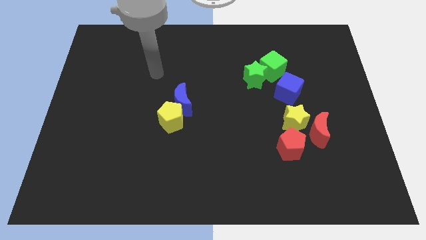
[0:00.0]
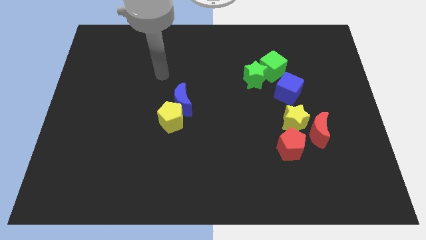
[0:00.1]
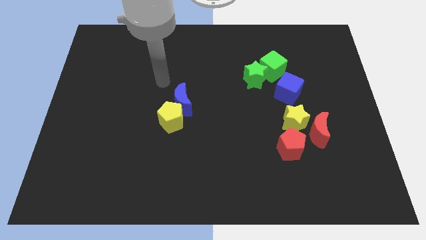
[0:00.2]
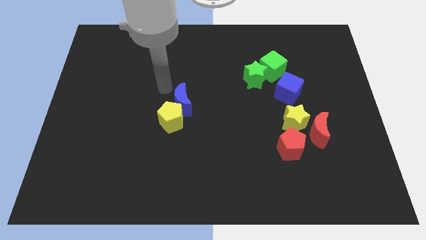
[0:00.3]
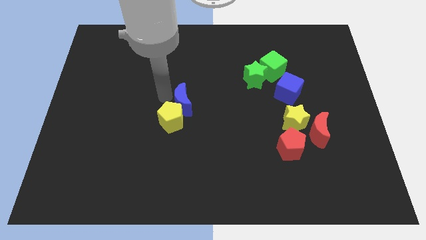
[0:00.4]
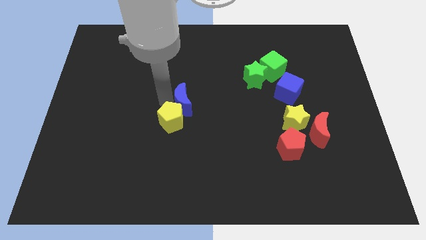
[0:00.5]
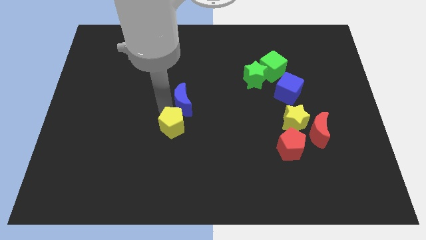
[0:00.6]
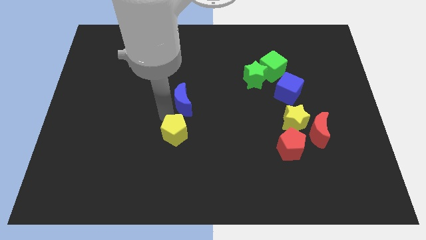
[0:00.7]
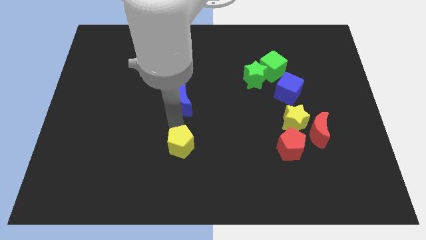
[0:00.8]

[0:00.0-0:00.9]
pull the blue moon apart from the yellow pentagon

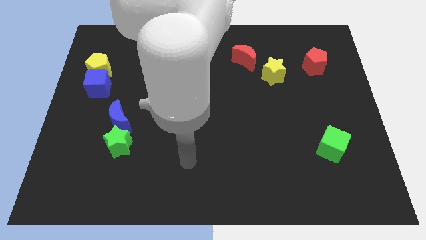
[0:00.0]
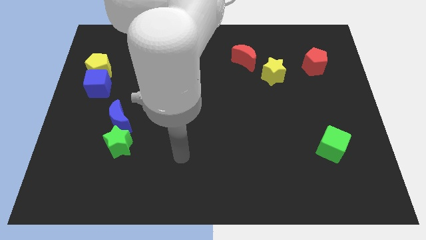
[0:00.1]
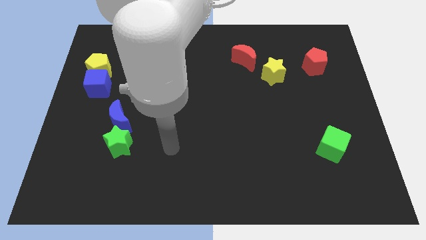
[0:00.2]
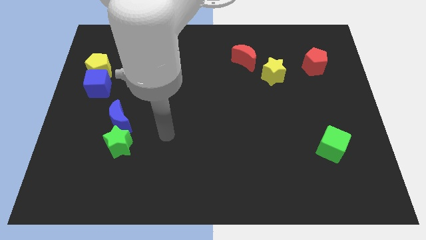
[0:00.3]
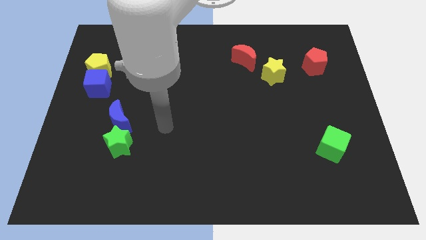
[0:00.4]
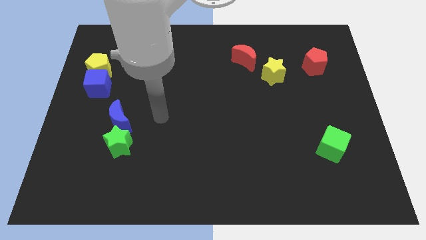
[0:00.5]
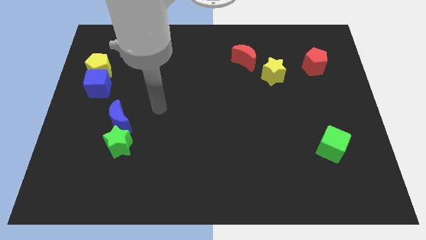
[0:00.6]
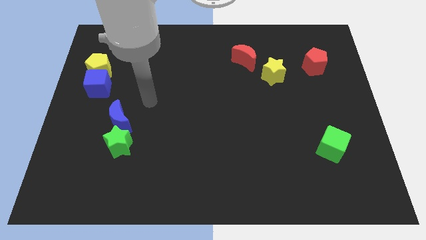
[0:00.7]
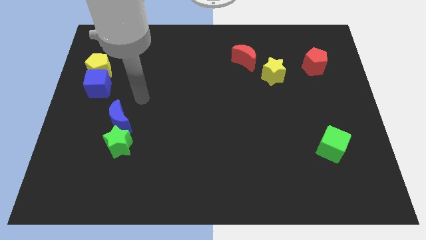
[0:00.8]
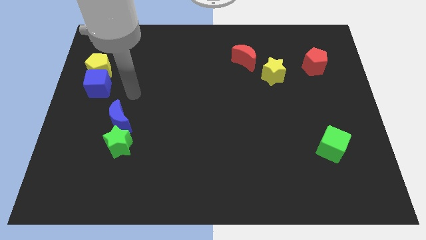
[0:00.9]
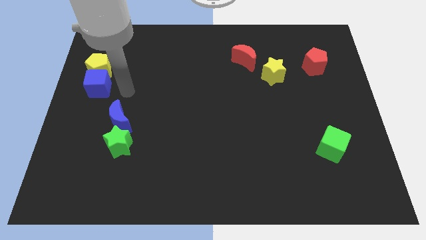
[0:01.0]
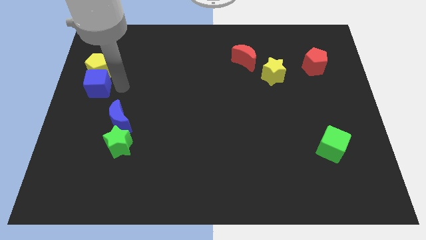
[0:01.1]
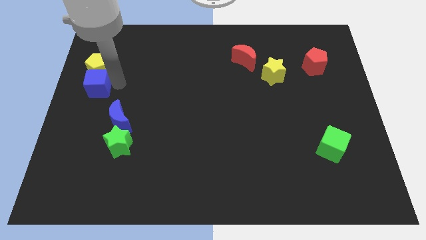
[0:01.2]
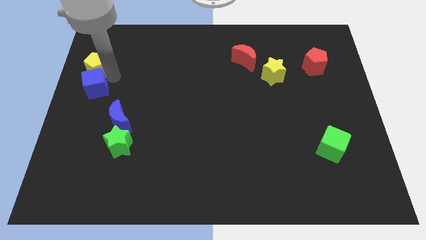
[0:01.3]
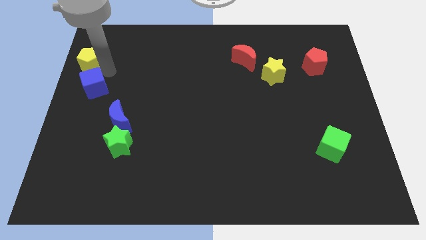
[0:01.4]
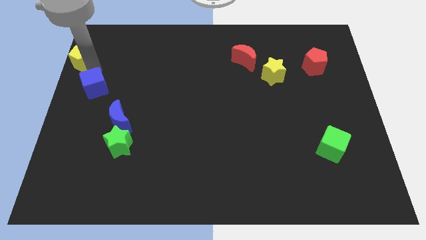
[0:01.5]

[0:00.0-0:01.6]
separate the blue cube from the yellow pentagon

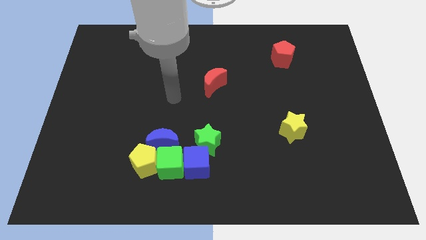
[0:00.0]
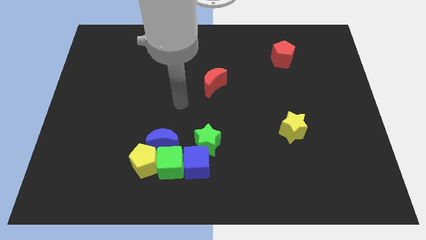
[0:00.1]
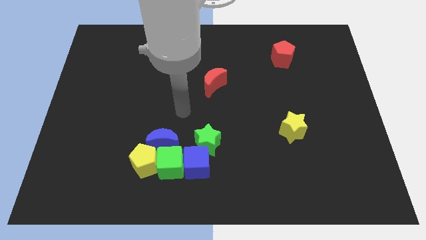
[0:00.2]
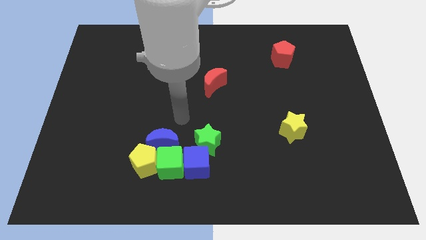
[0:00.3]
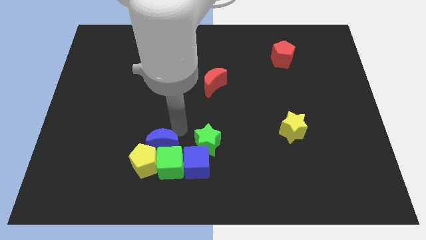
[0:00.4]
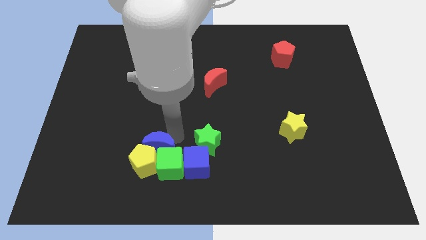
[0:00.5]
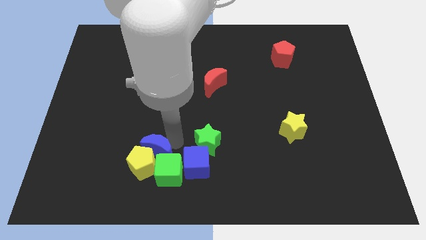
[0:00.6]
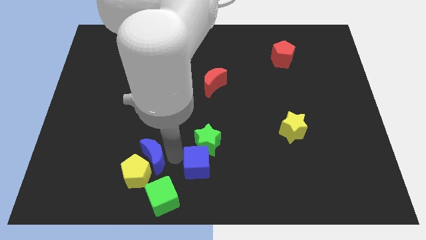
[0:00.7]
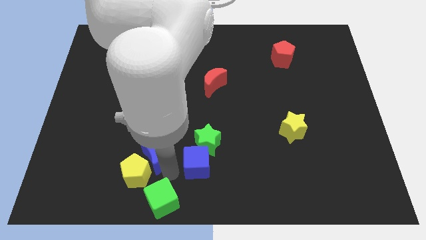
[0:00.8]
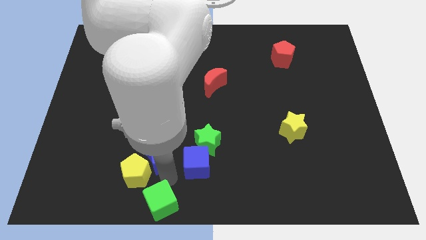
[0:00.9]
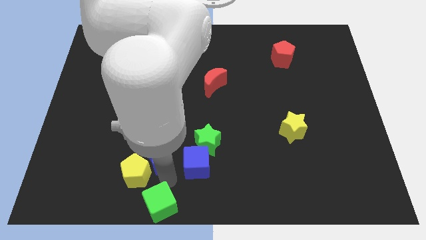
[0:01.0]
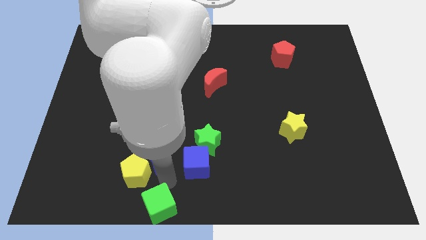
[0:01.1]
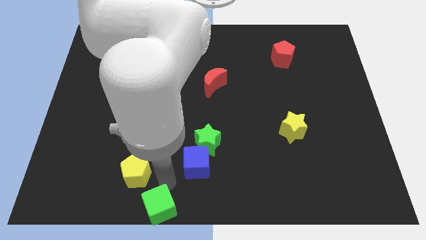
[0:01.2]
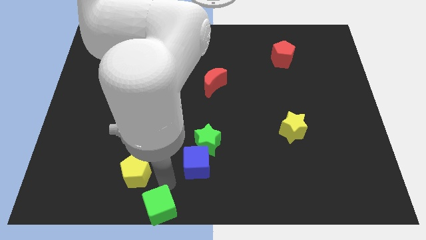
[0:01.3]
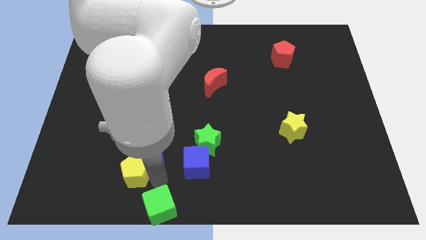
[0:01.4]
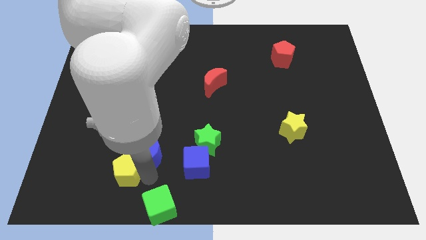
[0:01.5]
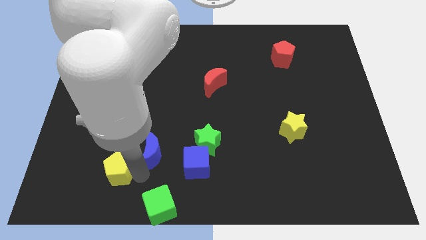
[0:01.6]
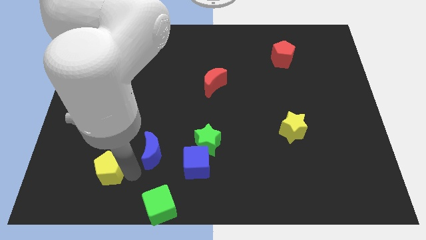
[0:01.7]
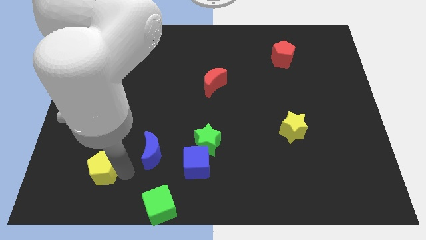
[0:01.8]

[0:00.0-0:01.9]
move the yellow pentagon away from the green cube and blue moon

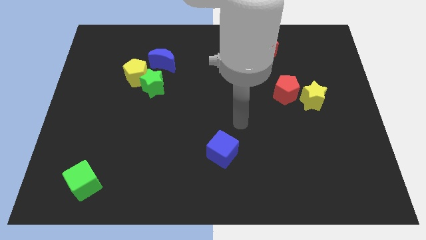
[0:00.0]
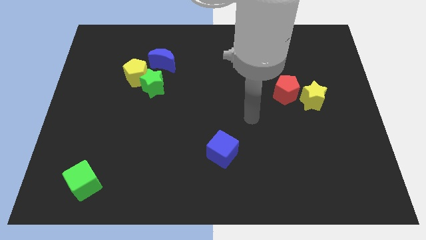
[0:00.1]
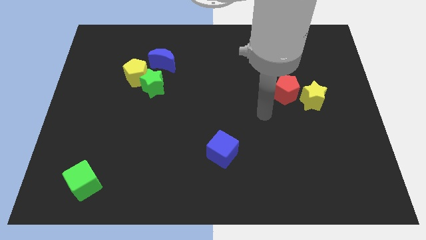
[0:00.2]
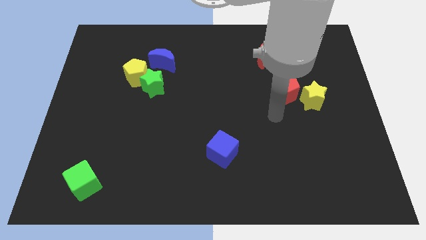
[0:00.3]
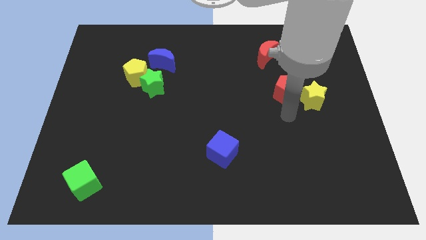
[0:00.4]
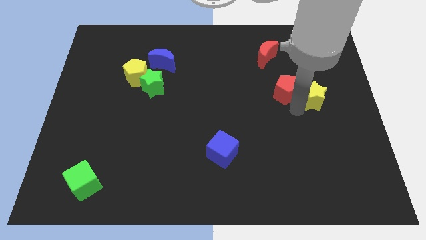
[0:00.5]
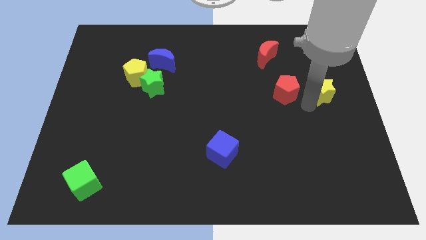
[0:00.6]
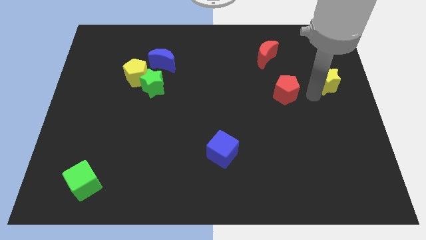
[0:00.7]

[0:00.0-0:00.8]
pull the red pentagon apart from the yellow star

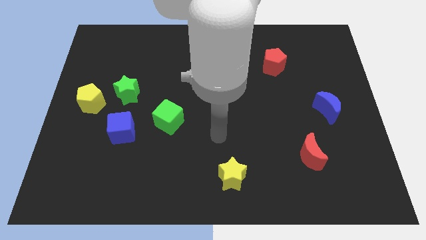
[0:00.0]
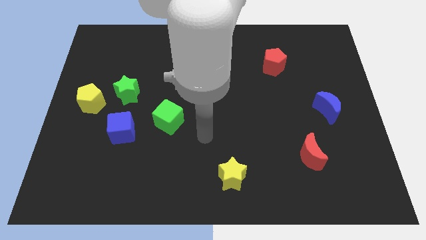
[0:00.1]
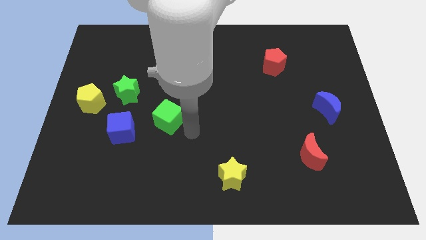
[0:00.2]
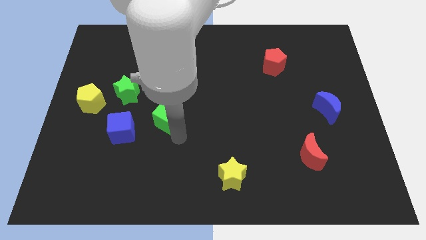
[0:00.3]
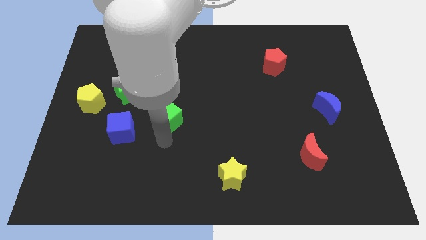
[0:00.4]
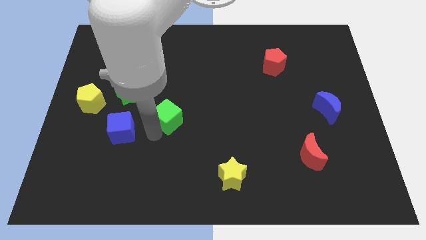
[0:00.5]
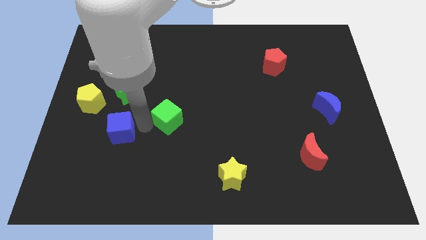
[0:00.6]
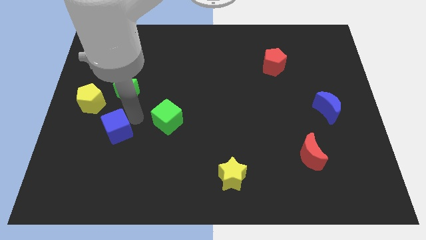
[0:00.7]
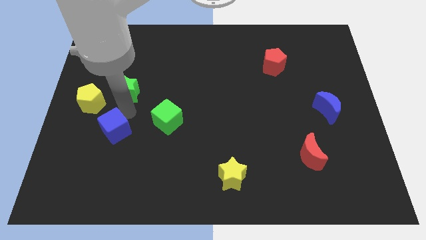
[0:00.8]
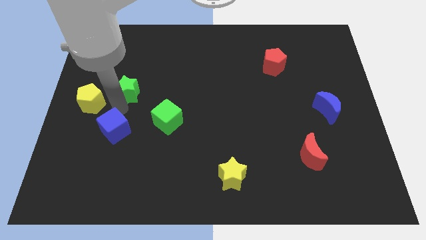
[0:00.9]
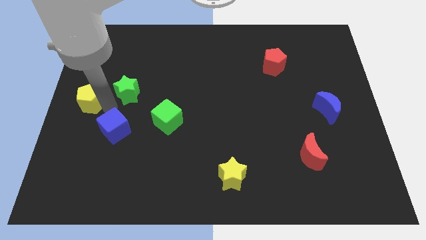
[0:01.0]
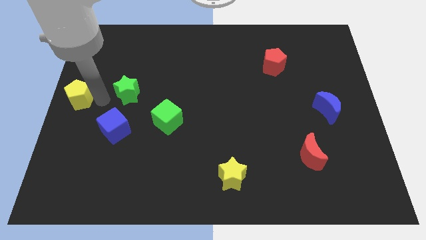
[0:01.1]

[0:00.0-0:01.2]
pull the green star apart from the yellow pentagon

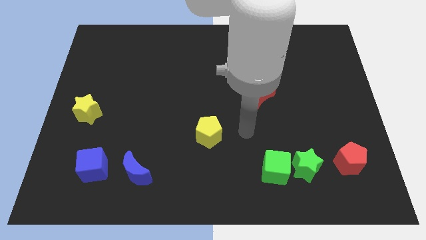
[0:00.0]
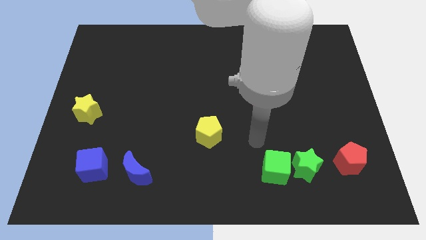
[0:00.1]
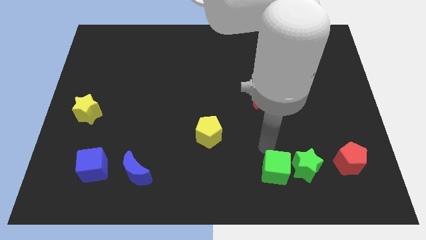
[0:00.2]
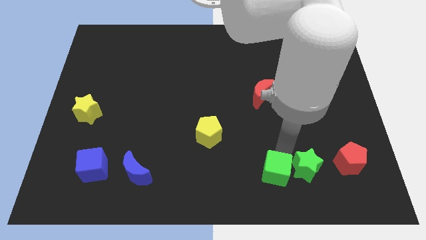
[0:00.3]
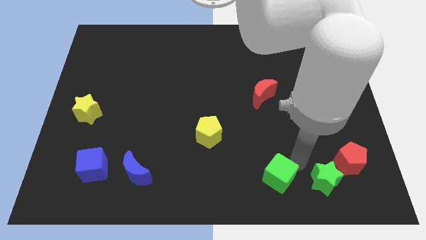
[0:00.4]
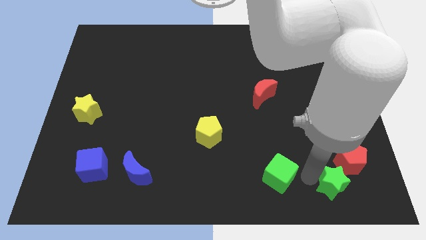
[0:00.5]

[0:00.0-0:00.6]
pull the green cube apart from the green star

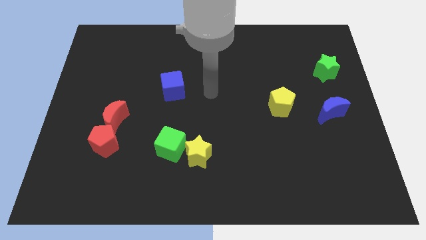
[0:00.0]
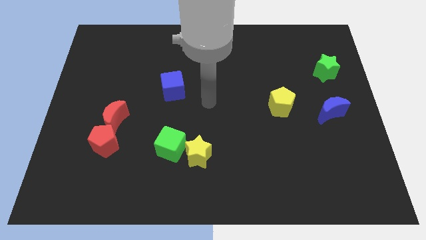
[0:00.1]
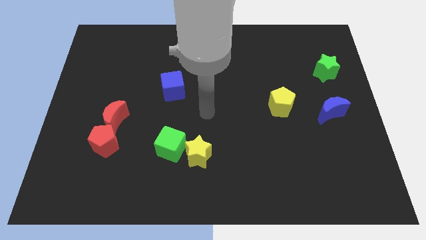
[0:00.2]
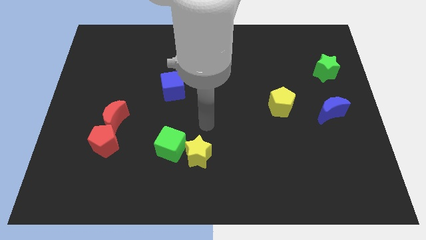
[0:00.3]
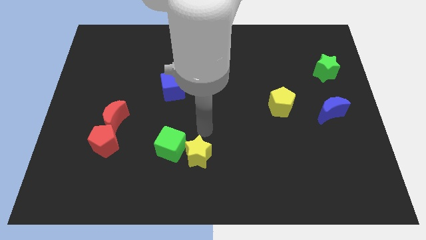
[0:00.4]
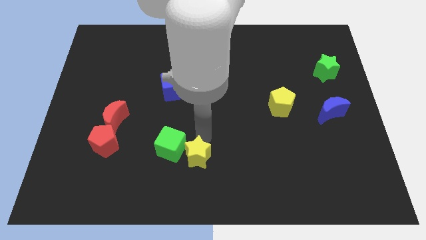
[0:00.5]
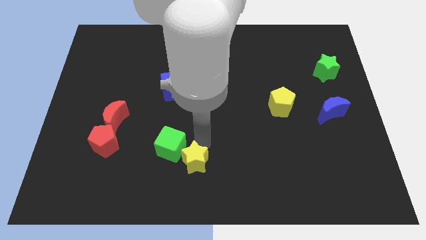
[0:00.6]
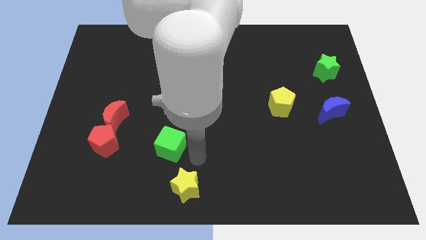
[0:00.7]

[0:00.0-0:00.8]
pull the green cube apart from the yellow star

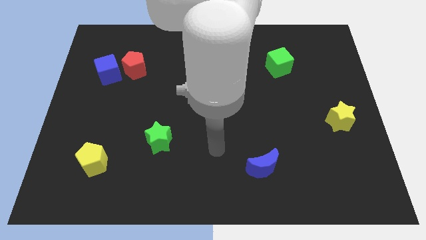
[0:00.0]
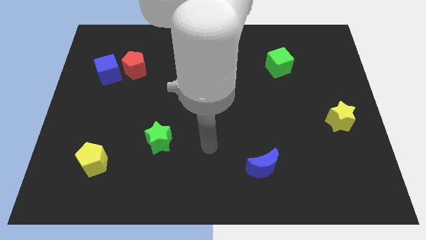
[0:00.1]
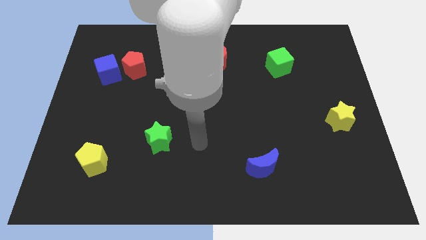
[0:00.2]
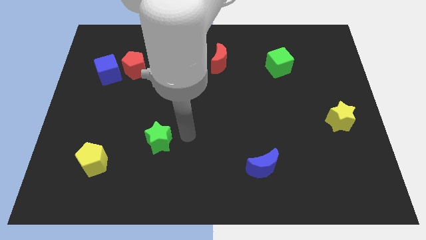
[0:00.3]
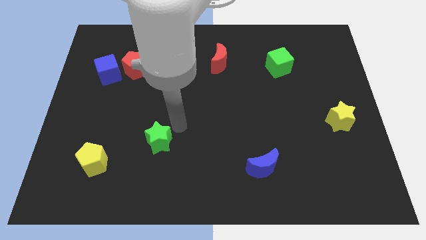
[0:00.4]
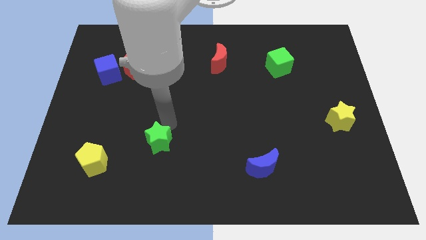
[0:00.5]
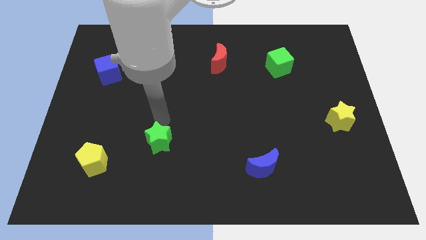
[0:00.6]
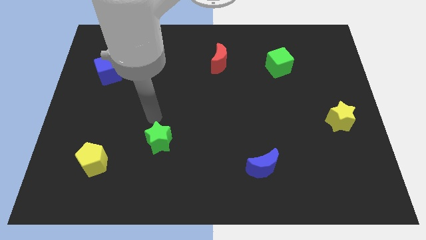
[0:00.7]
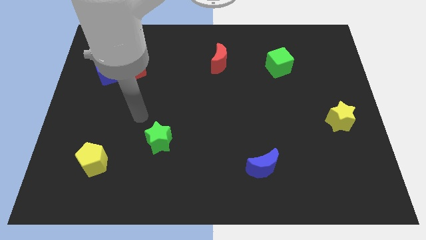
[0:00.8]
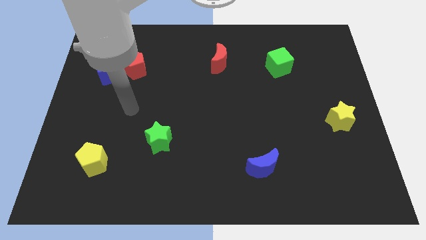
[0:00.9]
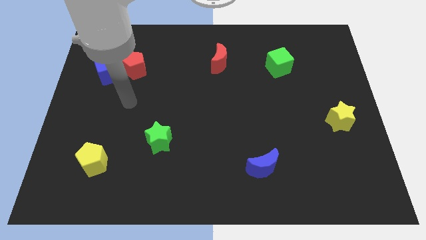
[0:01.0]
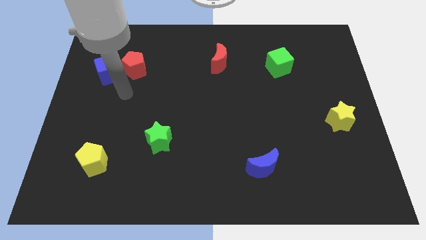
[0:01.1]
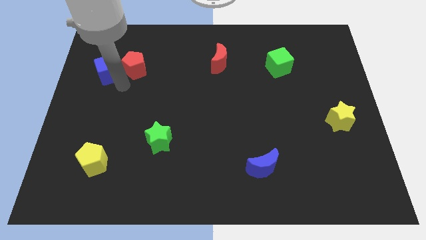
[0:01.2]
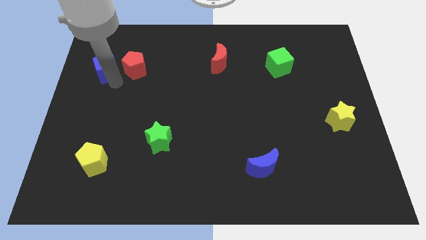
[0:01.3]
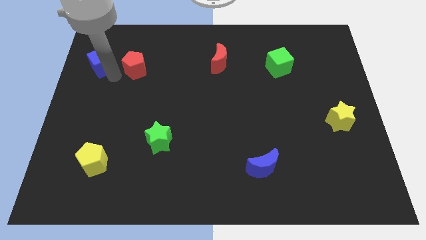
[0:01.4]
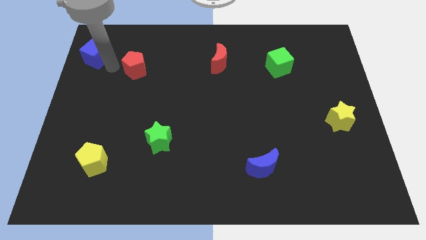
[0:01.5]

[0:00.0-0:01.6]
move the red pentagon away from the blue cube
